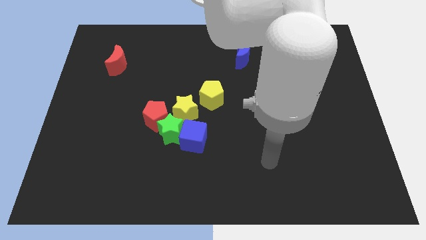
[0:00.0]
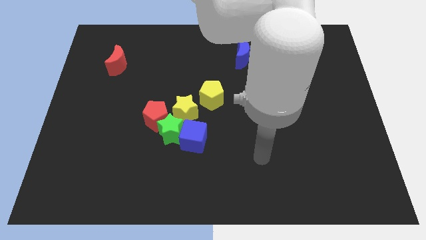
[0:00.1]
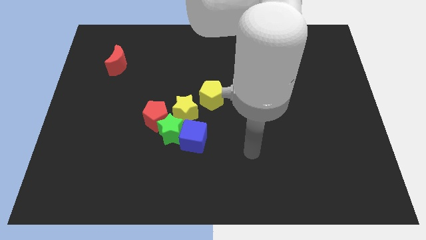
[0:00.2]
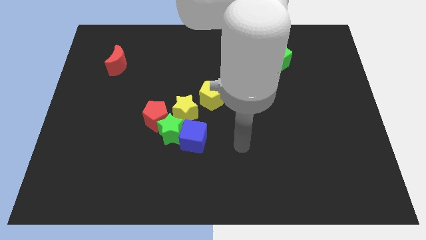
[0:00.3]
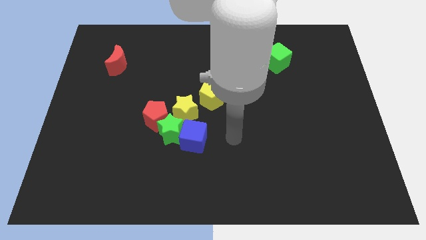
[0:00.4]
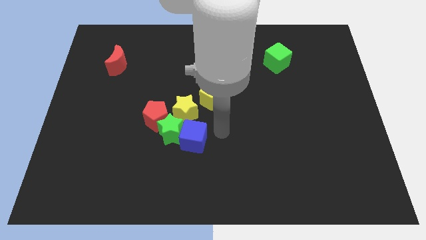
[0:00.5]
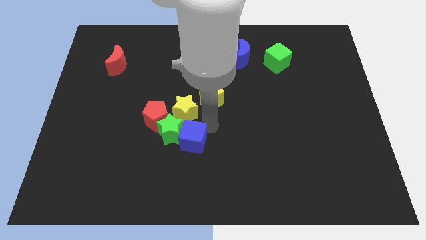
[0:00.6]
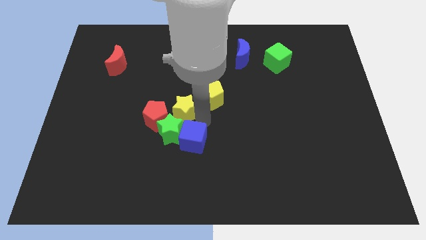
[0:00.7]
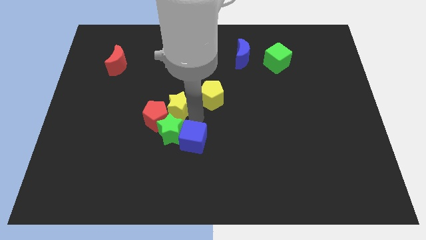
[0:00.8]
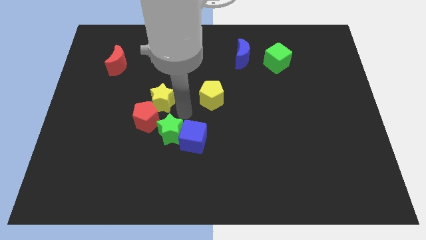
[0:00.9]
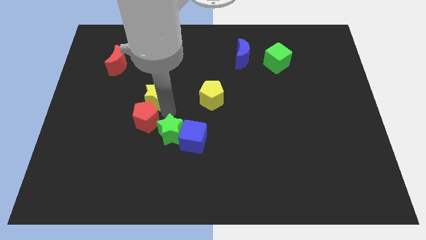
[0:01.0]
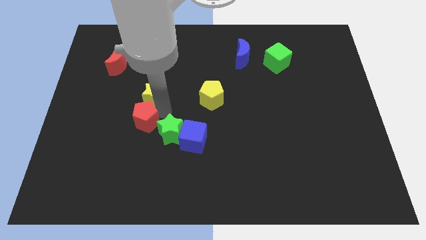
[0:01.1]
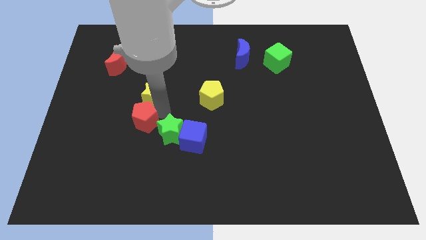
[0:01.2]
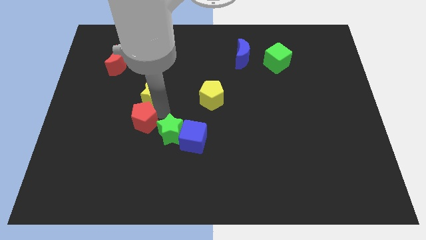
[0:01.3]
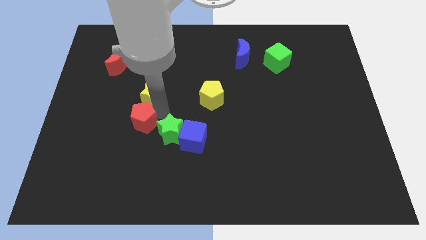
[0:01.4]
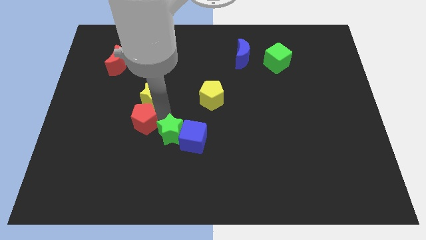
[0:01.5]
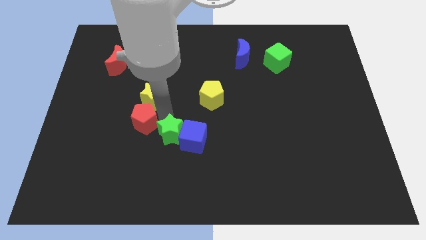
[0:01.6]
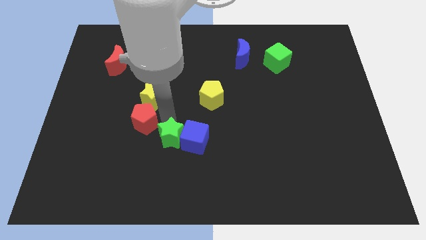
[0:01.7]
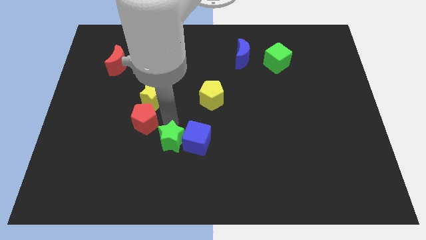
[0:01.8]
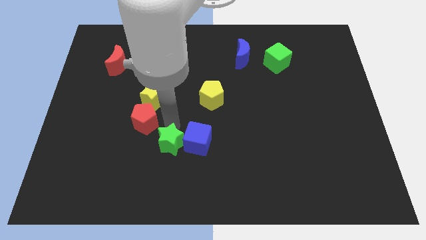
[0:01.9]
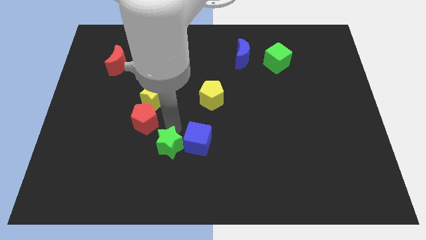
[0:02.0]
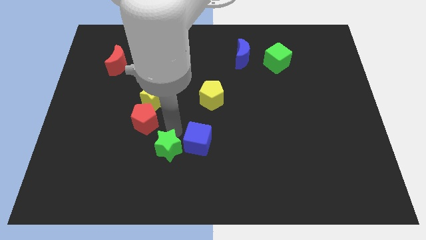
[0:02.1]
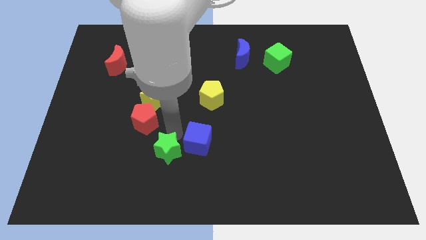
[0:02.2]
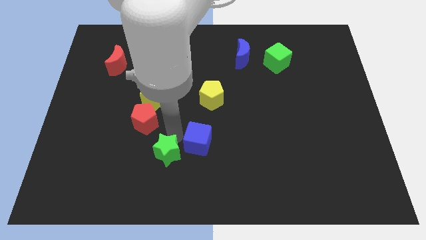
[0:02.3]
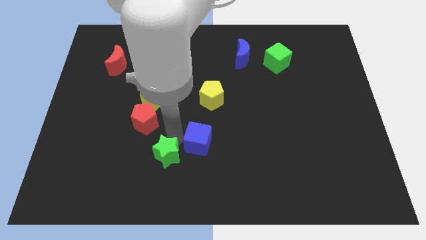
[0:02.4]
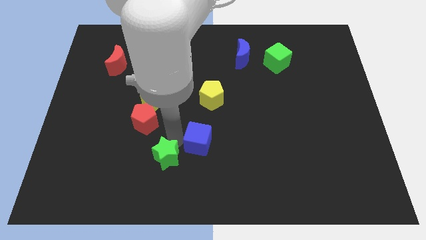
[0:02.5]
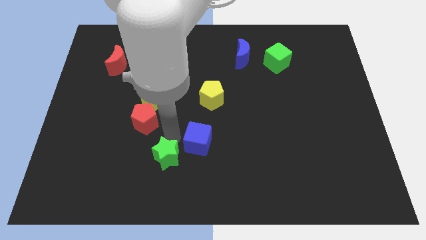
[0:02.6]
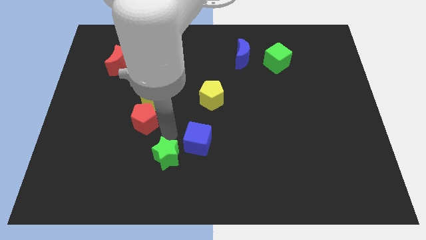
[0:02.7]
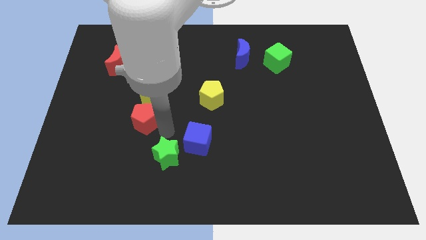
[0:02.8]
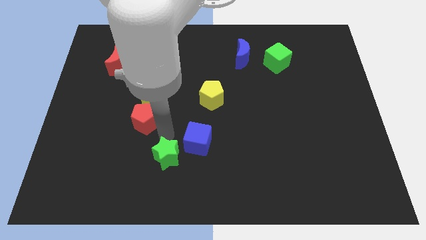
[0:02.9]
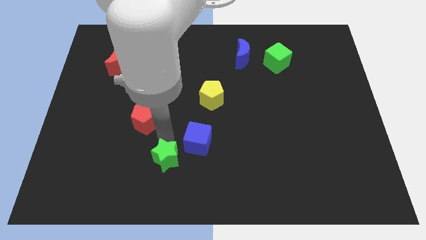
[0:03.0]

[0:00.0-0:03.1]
separate the green star from the clump

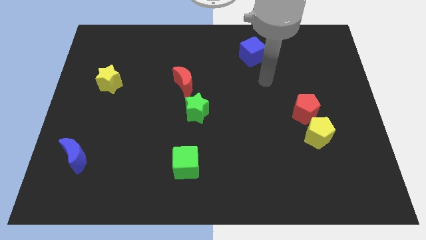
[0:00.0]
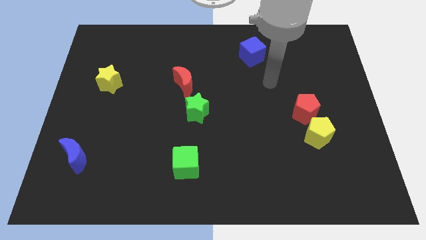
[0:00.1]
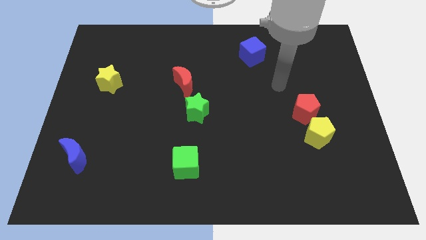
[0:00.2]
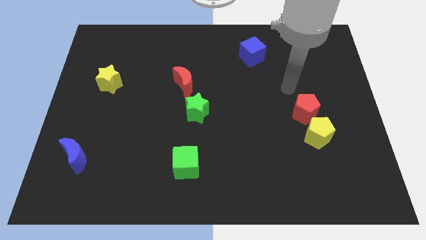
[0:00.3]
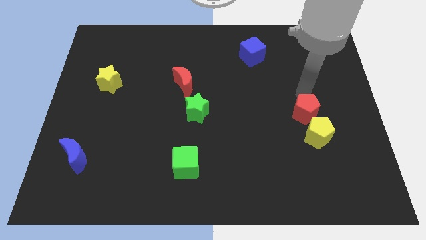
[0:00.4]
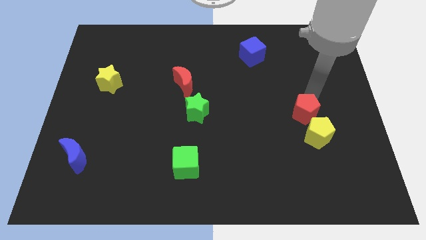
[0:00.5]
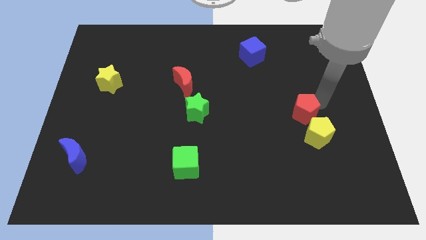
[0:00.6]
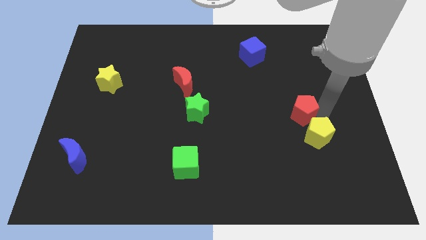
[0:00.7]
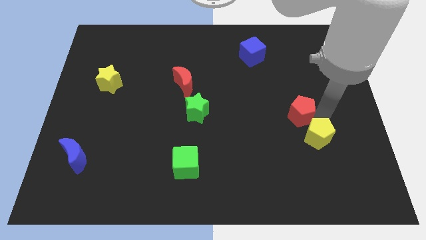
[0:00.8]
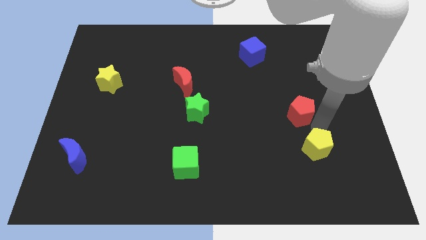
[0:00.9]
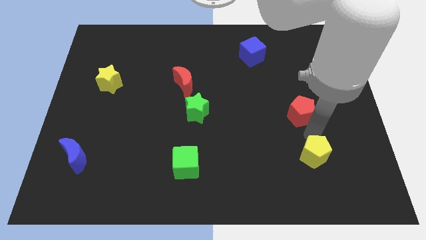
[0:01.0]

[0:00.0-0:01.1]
move the red pentagon away from the yellow pentagon

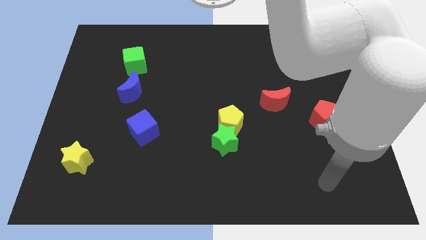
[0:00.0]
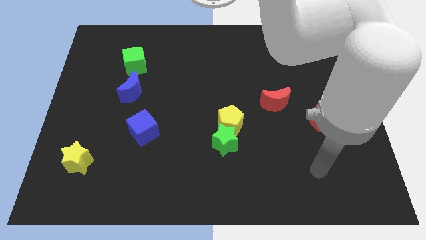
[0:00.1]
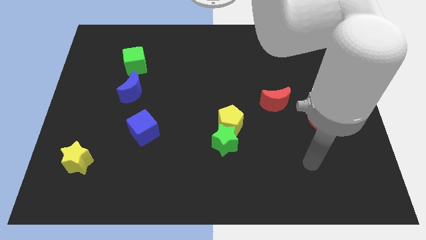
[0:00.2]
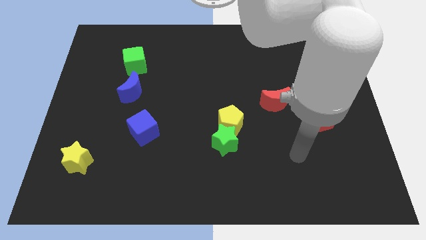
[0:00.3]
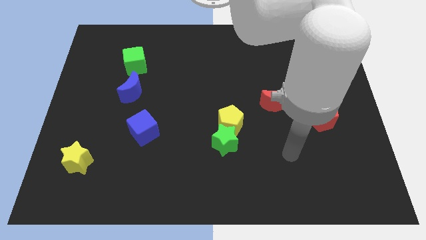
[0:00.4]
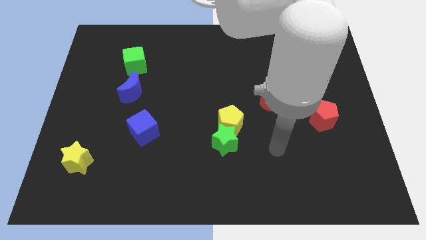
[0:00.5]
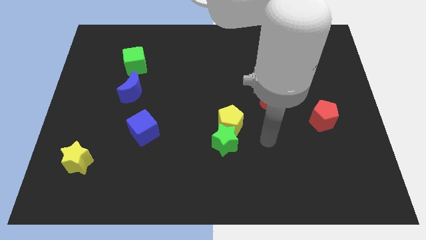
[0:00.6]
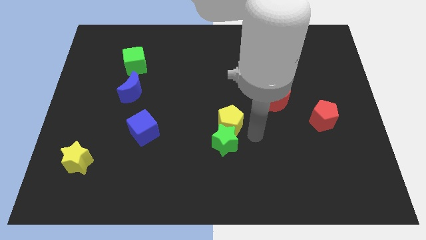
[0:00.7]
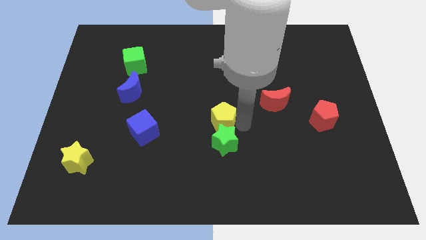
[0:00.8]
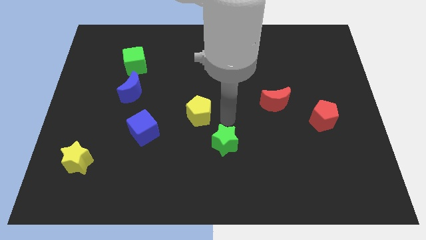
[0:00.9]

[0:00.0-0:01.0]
separate the green star from the yellow pentagon

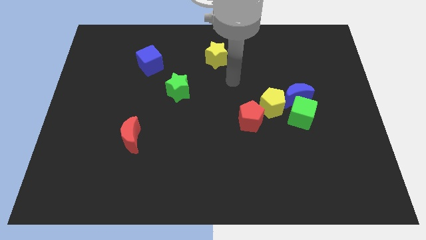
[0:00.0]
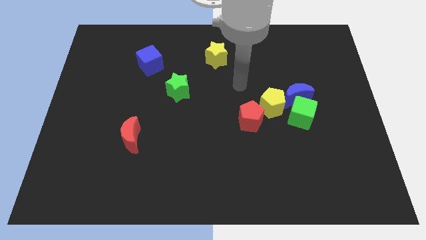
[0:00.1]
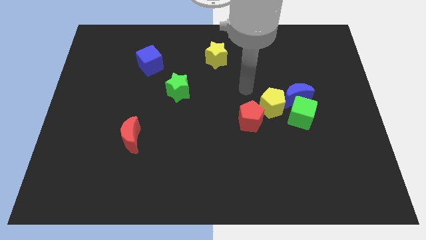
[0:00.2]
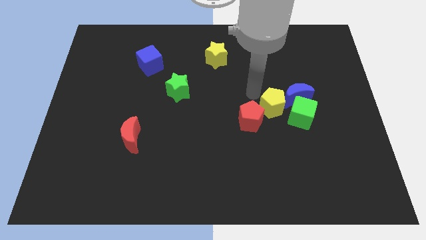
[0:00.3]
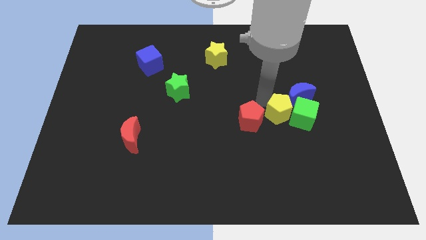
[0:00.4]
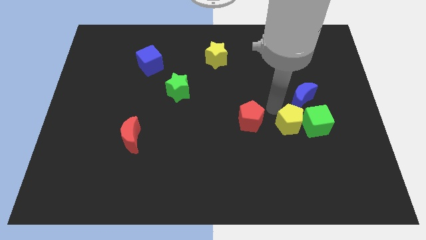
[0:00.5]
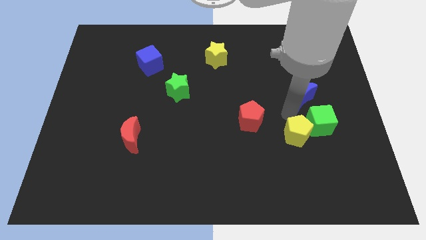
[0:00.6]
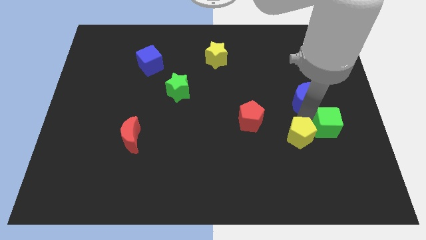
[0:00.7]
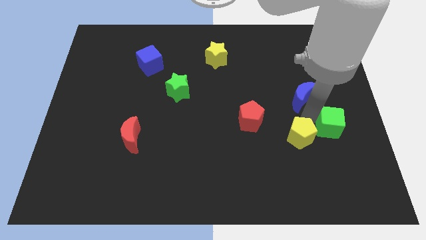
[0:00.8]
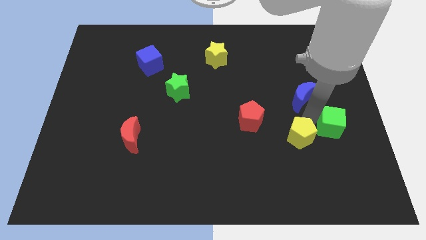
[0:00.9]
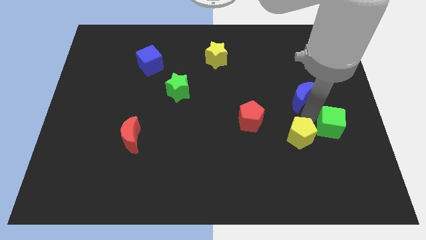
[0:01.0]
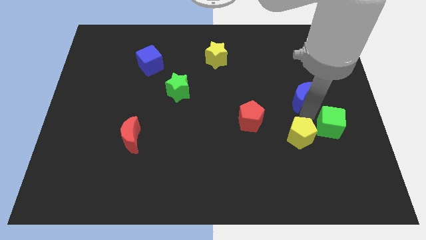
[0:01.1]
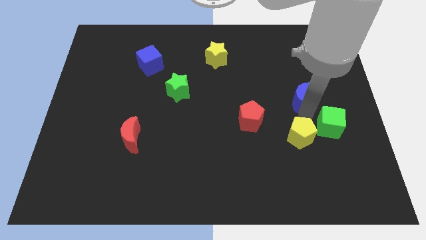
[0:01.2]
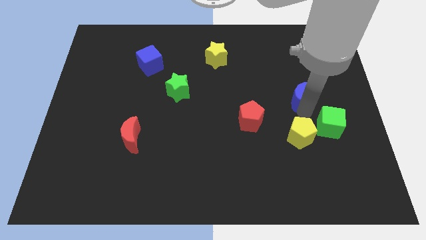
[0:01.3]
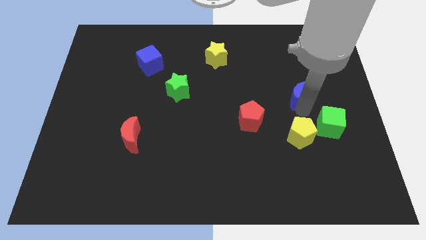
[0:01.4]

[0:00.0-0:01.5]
separate the blue moon from the green cube and yellow pentagon

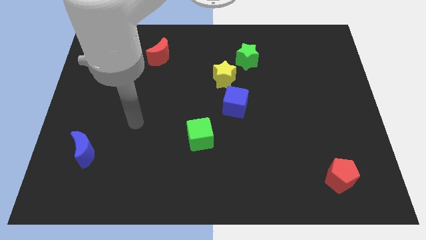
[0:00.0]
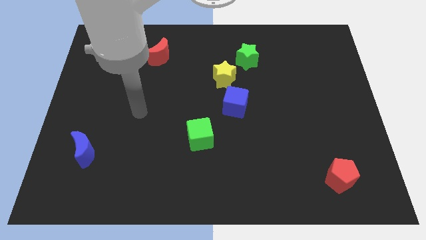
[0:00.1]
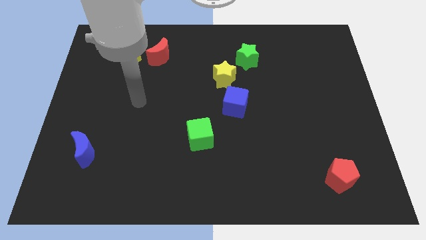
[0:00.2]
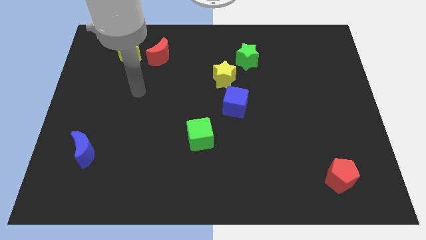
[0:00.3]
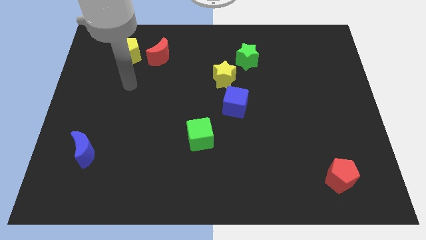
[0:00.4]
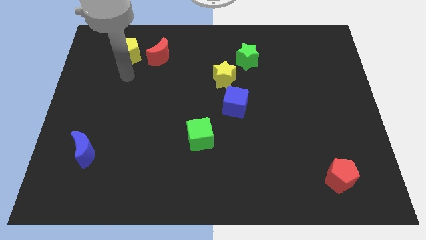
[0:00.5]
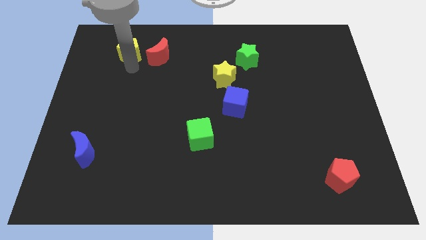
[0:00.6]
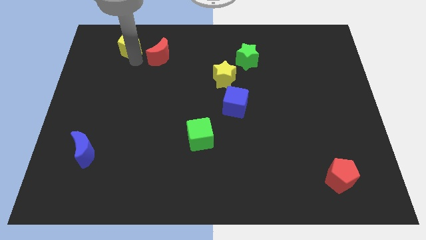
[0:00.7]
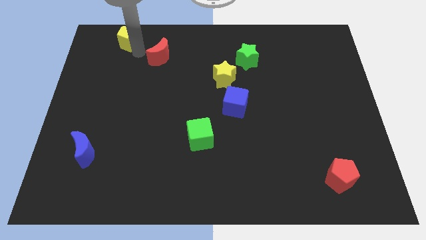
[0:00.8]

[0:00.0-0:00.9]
pull the red moon apart from the yellow pentagon

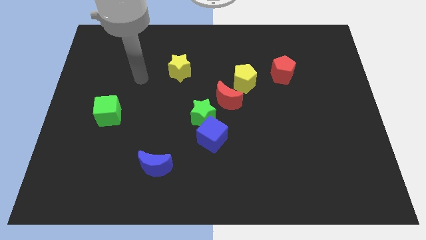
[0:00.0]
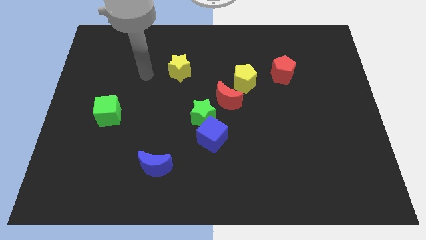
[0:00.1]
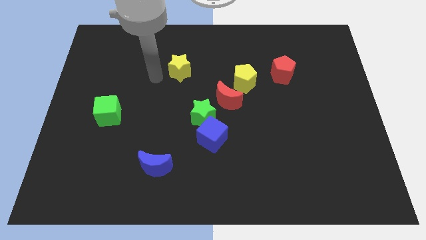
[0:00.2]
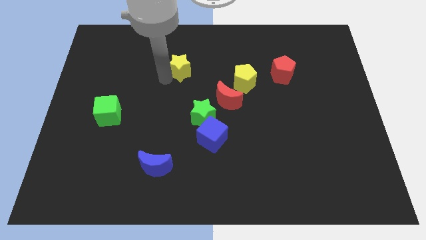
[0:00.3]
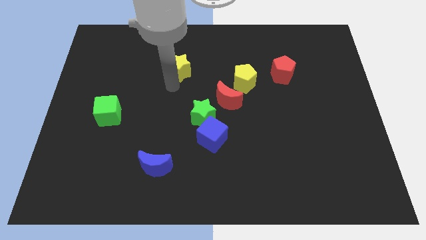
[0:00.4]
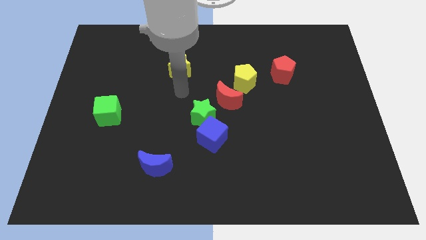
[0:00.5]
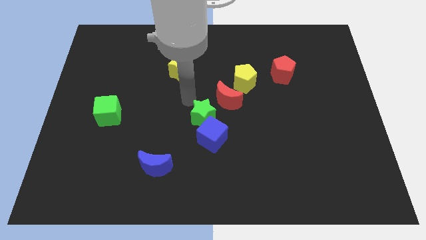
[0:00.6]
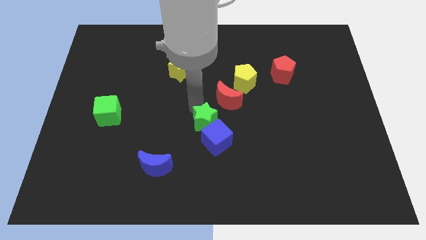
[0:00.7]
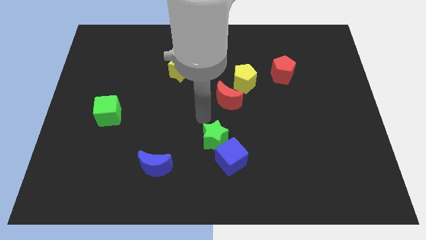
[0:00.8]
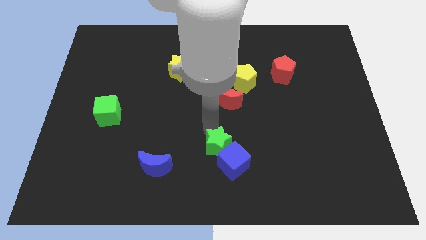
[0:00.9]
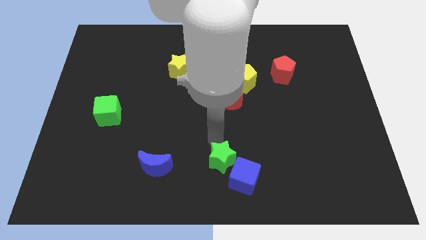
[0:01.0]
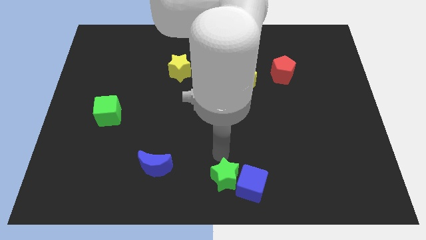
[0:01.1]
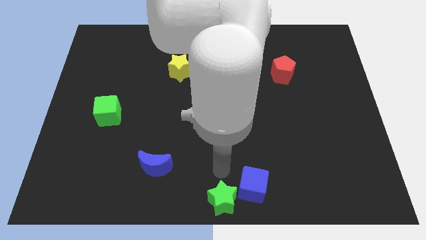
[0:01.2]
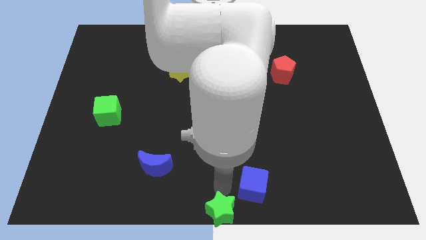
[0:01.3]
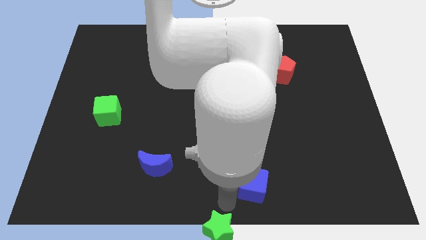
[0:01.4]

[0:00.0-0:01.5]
pull the blue cube apart from the green star

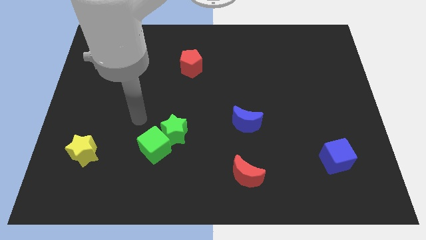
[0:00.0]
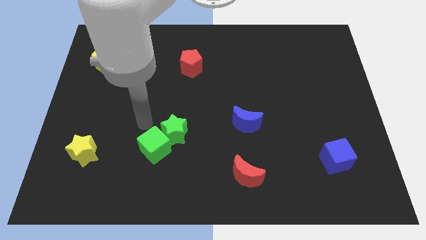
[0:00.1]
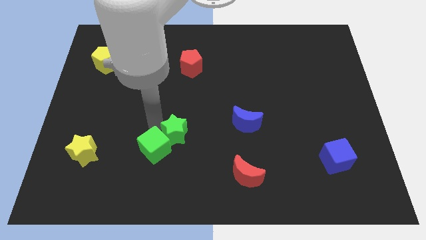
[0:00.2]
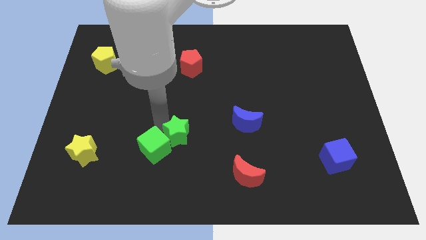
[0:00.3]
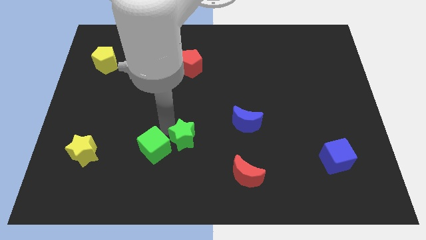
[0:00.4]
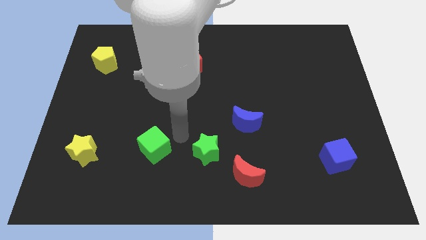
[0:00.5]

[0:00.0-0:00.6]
separate the green cube from the green star
